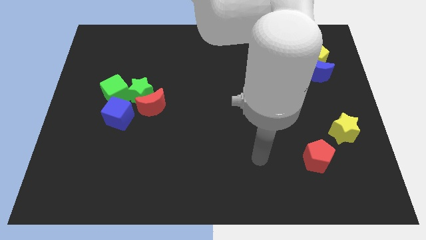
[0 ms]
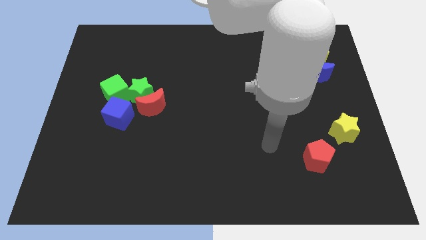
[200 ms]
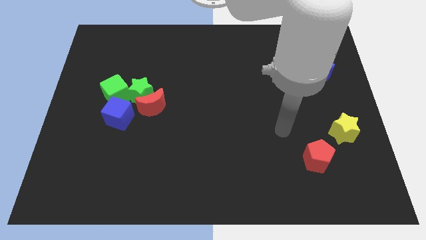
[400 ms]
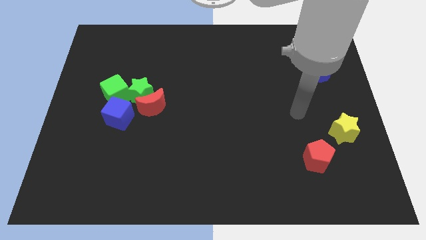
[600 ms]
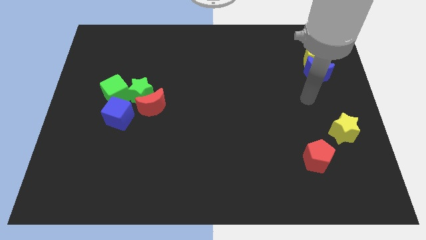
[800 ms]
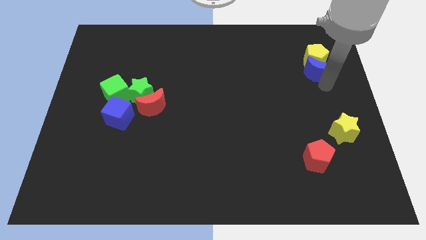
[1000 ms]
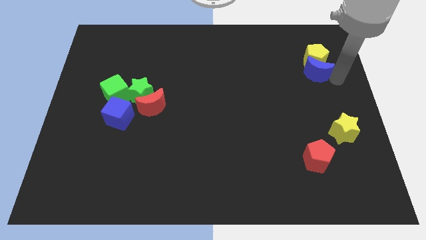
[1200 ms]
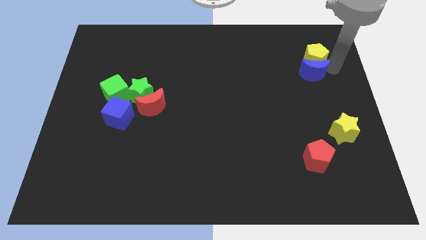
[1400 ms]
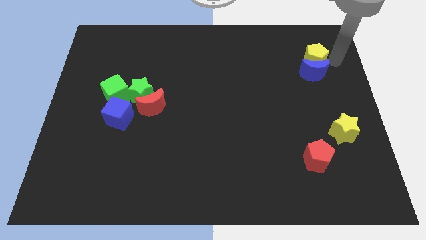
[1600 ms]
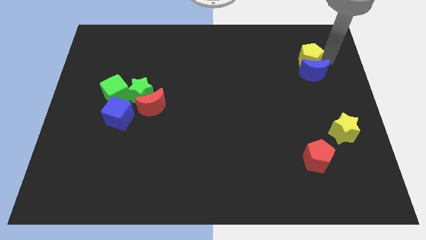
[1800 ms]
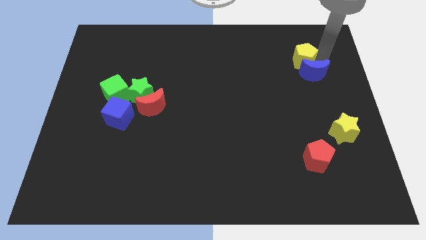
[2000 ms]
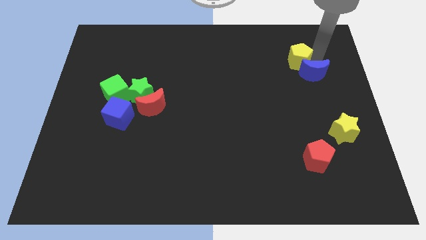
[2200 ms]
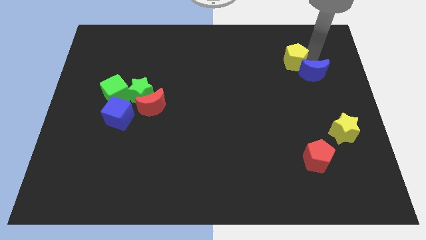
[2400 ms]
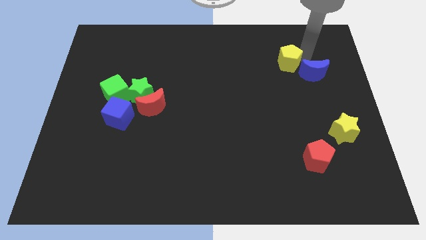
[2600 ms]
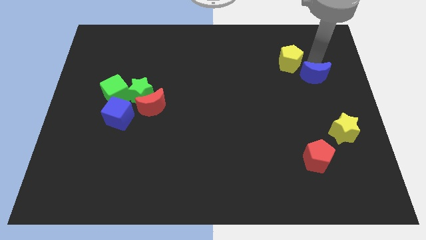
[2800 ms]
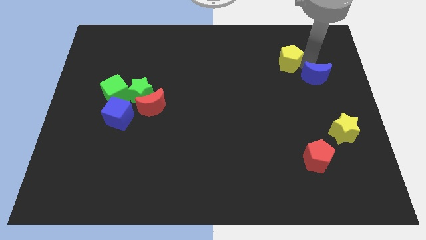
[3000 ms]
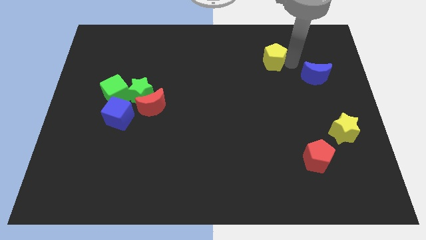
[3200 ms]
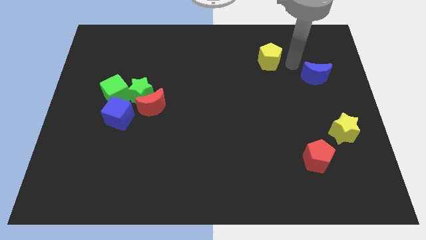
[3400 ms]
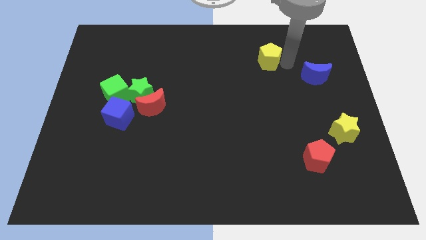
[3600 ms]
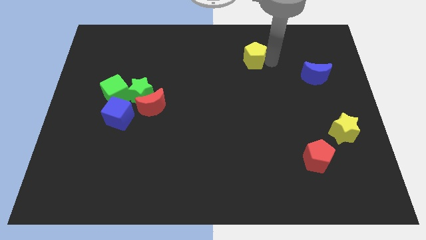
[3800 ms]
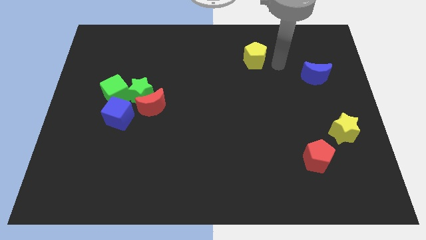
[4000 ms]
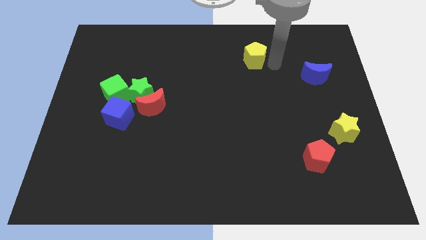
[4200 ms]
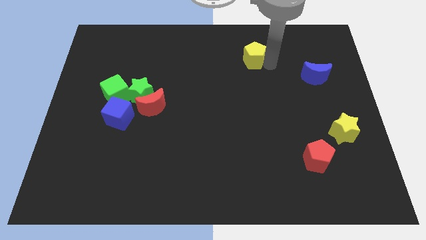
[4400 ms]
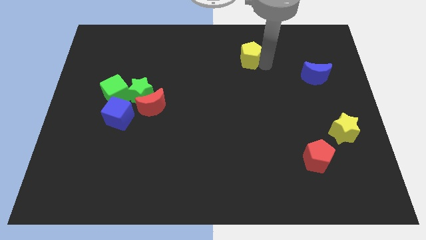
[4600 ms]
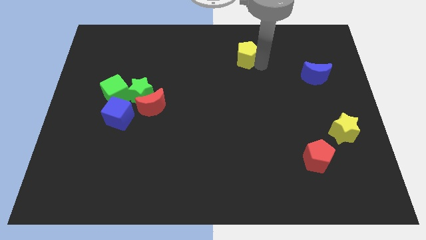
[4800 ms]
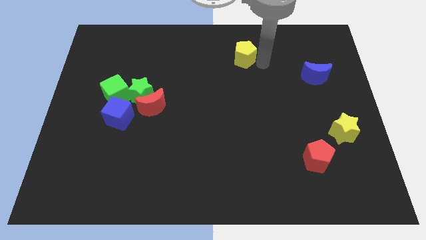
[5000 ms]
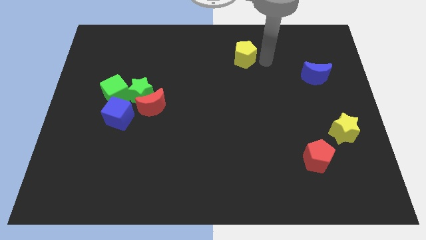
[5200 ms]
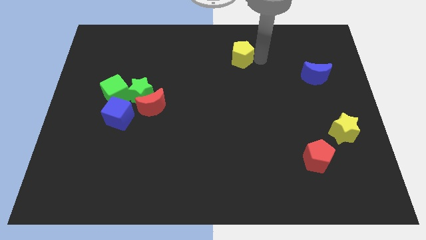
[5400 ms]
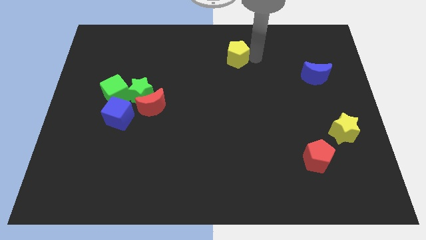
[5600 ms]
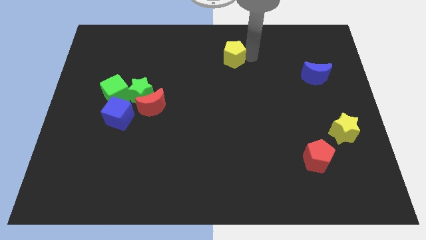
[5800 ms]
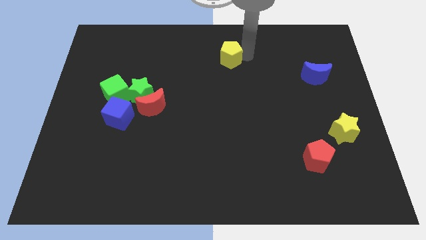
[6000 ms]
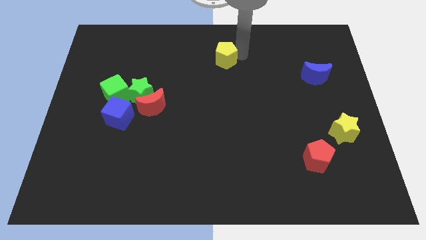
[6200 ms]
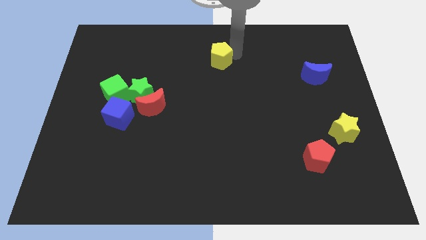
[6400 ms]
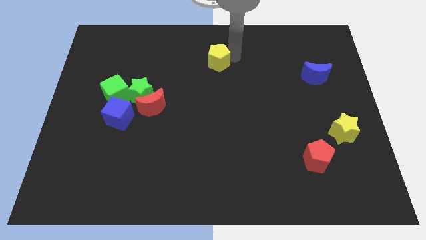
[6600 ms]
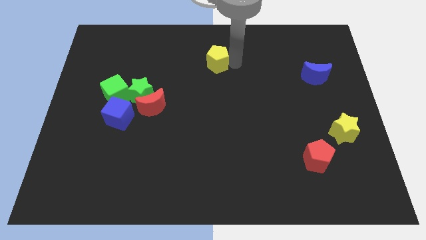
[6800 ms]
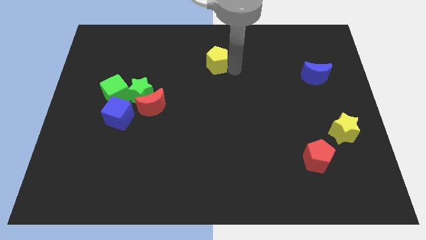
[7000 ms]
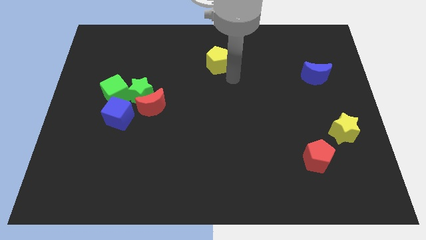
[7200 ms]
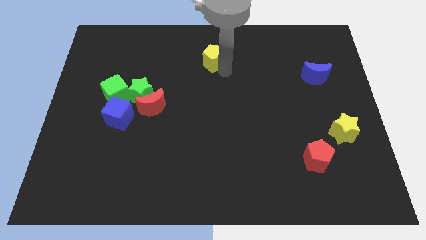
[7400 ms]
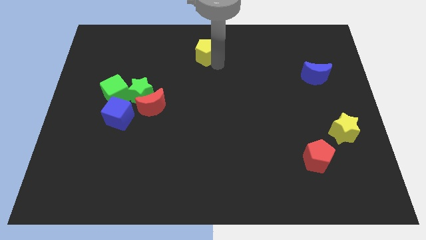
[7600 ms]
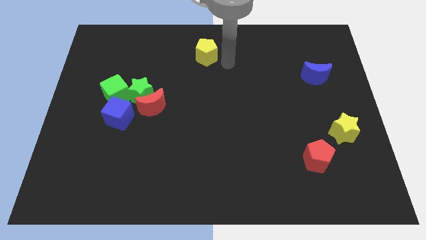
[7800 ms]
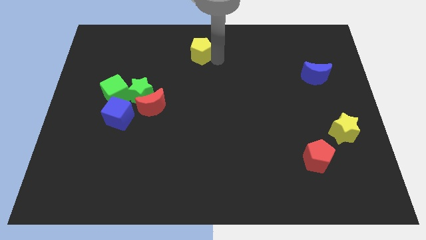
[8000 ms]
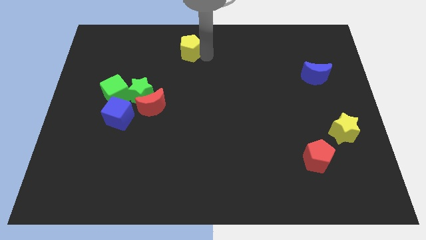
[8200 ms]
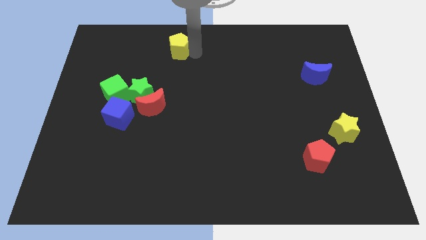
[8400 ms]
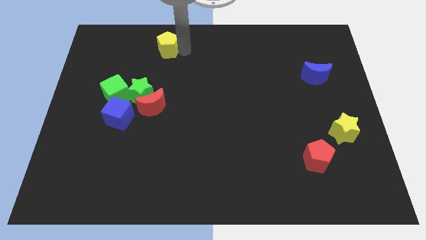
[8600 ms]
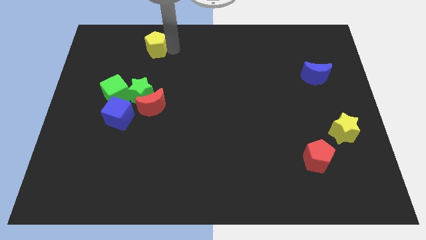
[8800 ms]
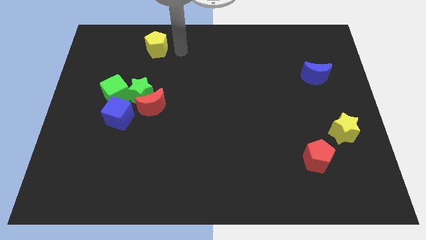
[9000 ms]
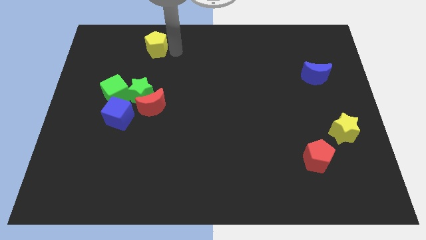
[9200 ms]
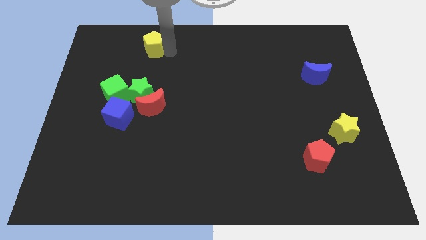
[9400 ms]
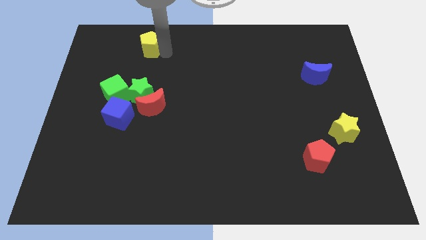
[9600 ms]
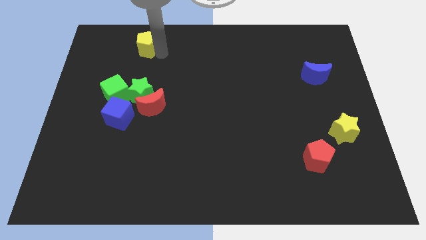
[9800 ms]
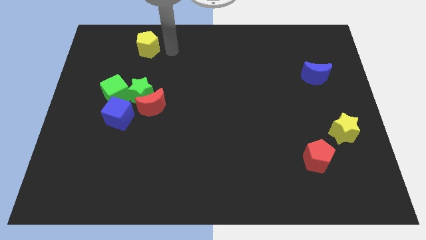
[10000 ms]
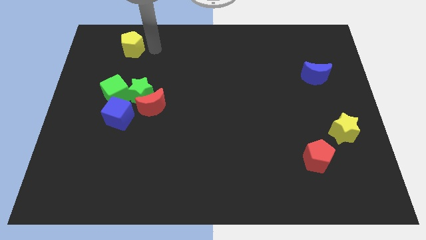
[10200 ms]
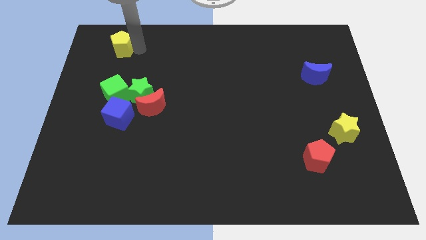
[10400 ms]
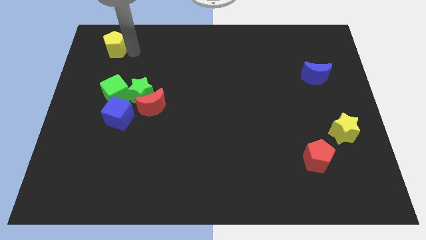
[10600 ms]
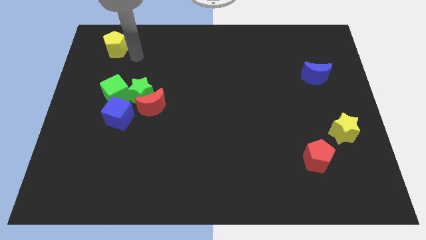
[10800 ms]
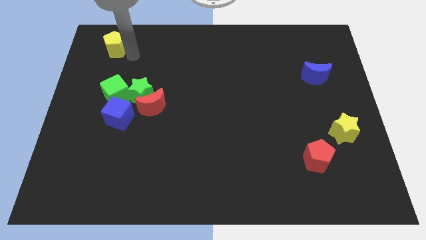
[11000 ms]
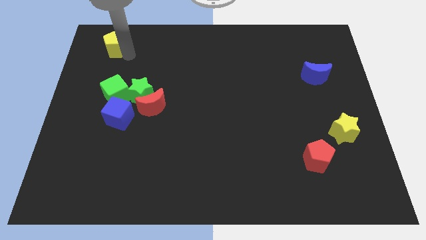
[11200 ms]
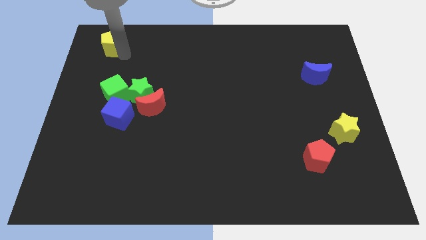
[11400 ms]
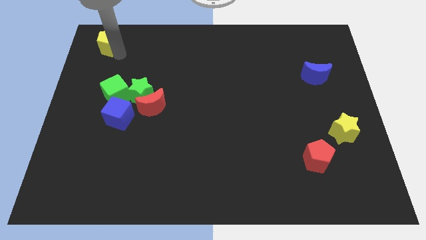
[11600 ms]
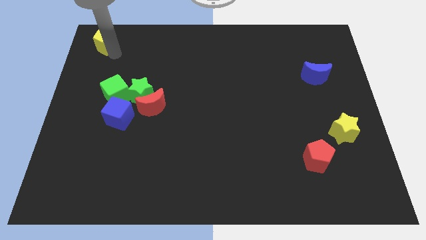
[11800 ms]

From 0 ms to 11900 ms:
move the yellow pentagon to the top left

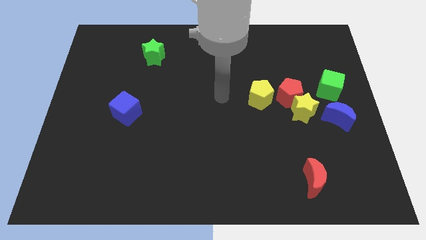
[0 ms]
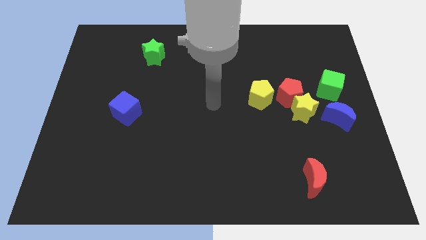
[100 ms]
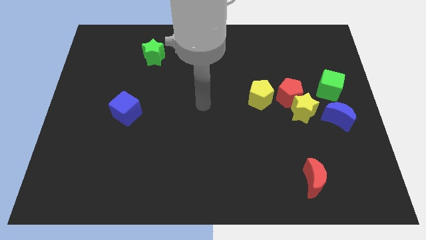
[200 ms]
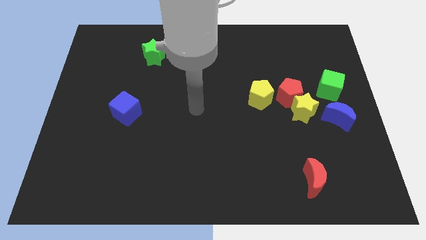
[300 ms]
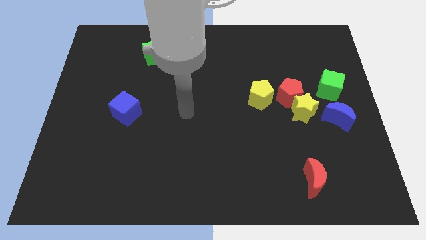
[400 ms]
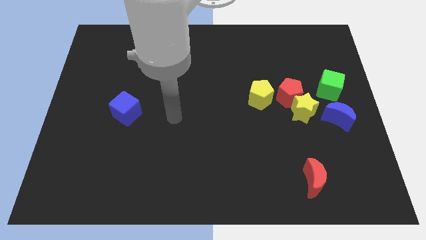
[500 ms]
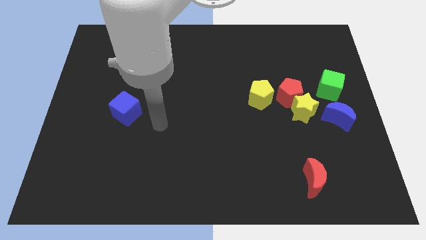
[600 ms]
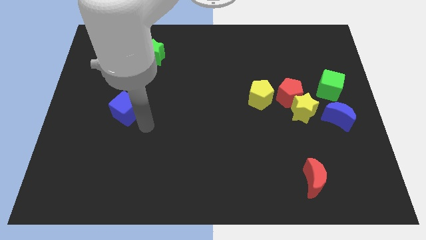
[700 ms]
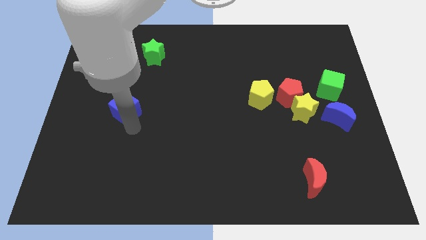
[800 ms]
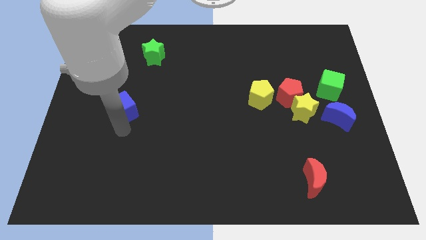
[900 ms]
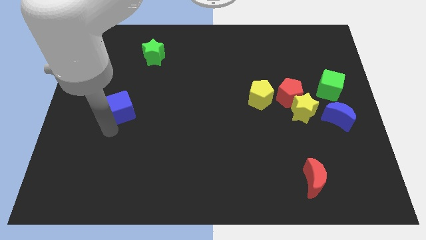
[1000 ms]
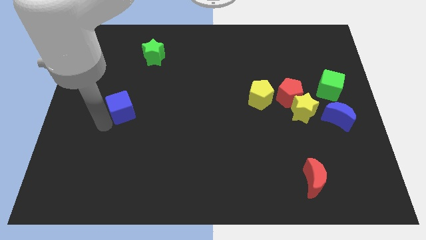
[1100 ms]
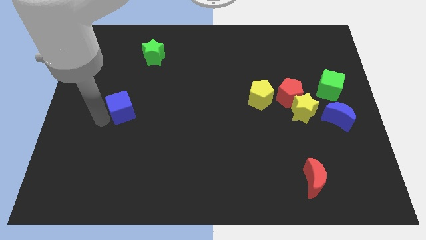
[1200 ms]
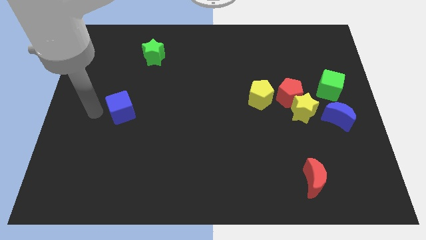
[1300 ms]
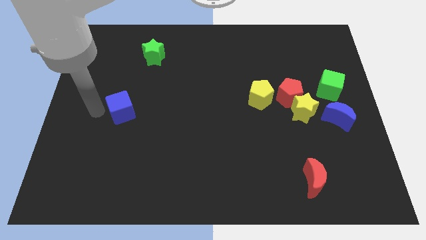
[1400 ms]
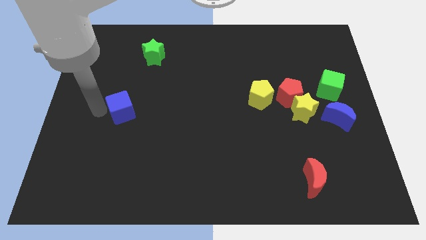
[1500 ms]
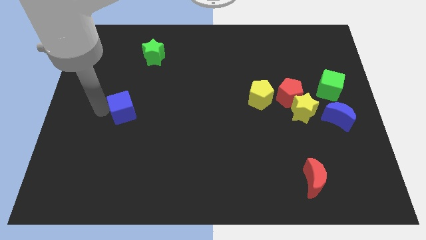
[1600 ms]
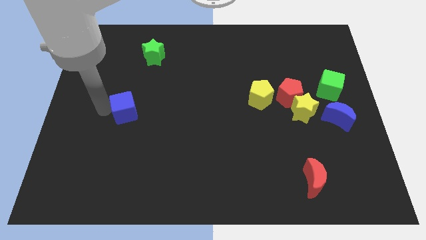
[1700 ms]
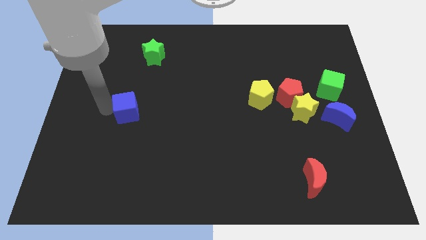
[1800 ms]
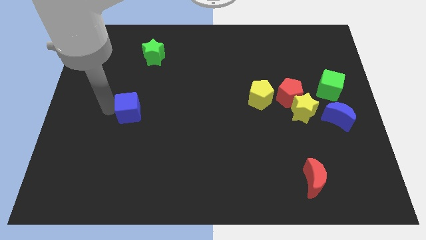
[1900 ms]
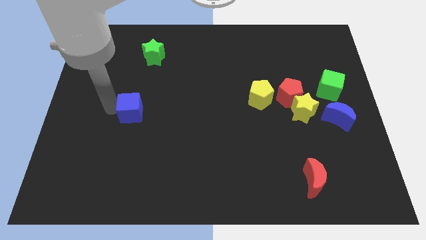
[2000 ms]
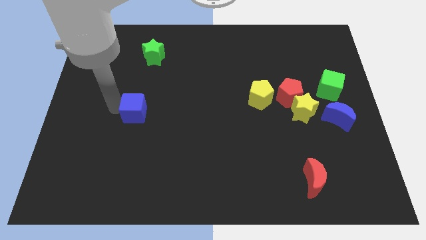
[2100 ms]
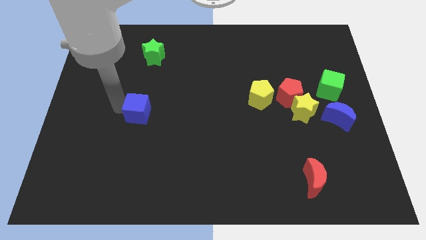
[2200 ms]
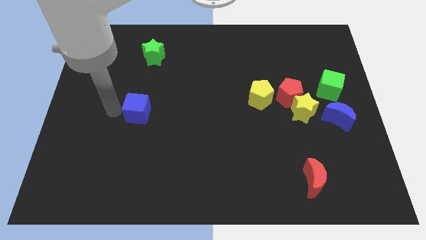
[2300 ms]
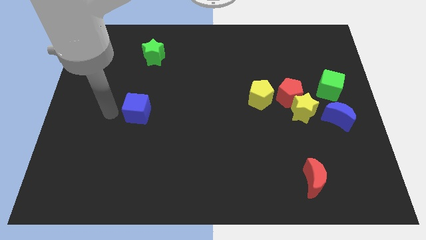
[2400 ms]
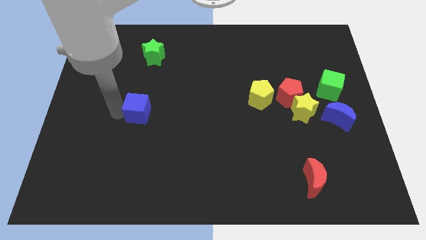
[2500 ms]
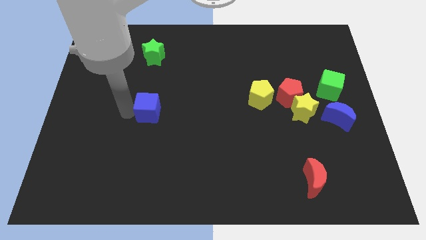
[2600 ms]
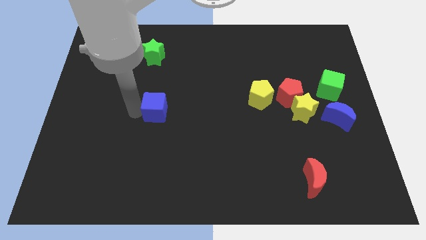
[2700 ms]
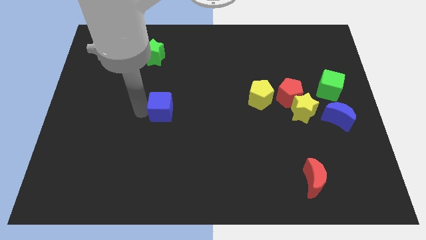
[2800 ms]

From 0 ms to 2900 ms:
push the blue cube to the center of the board
